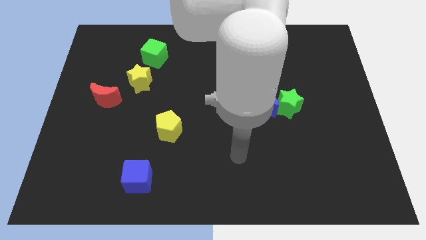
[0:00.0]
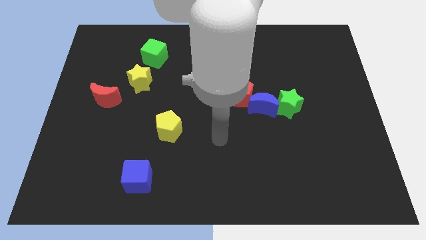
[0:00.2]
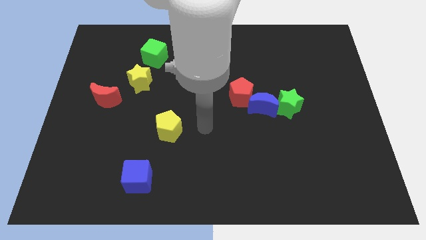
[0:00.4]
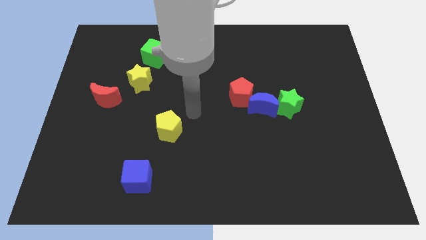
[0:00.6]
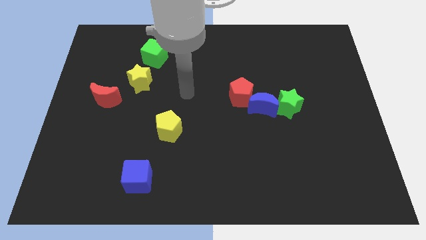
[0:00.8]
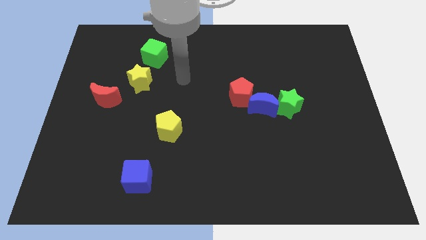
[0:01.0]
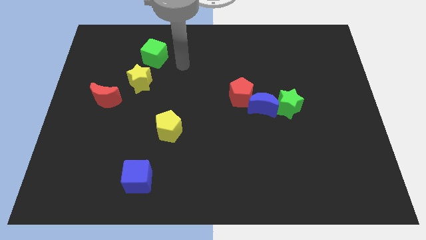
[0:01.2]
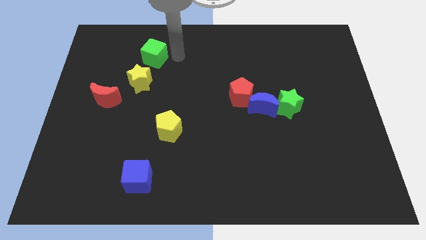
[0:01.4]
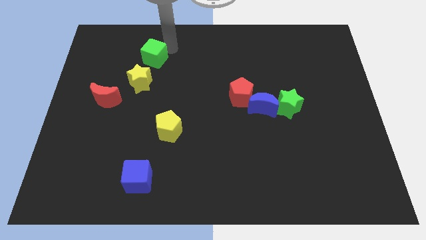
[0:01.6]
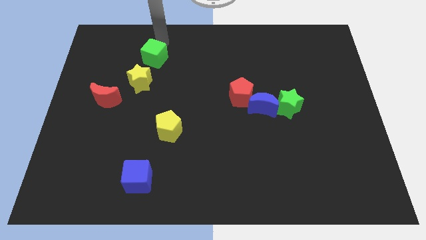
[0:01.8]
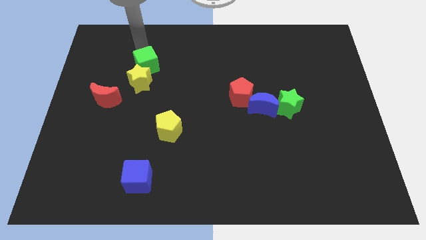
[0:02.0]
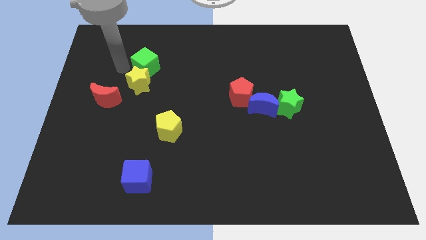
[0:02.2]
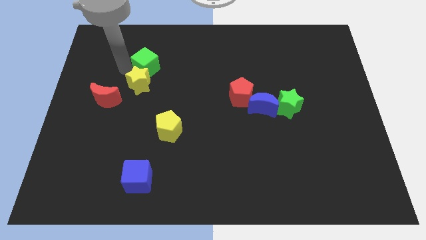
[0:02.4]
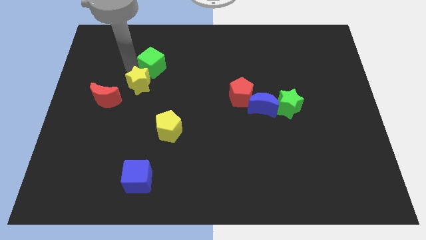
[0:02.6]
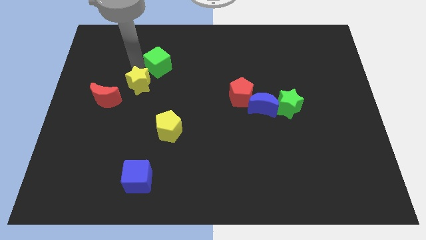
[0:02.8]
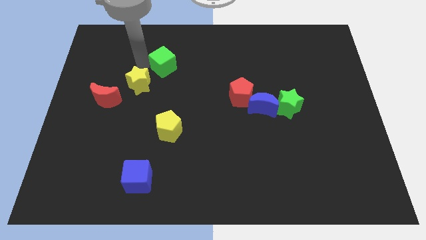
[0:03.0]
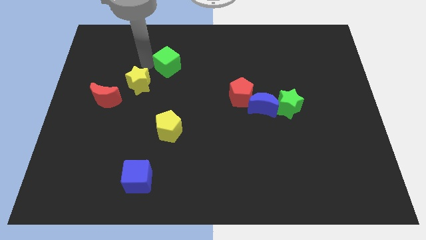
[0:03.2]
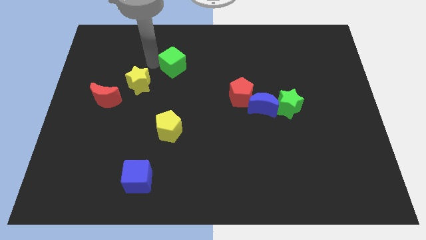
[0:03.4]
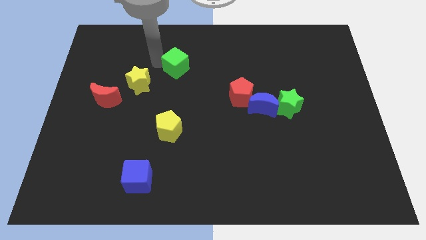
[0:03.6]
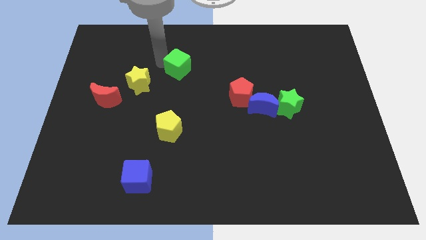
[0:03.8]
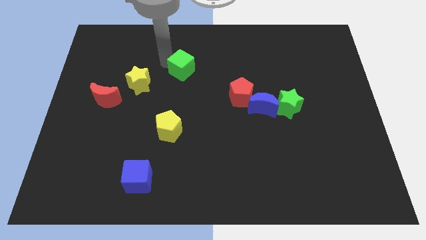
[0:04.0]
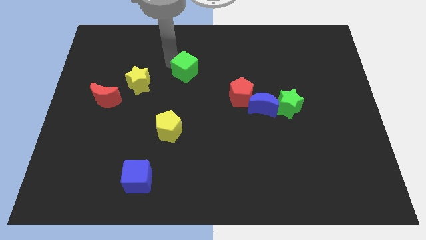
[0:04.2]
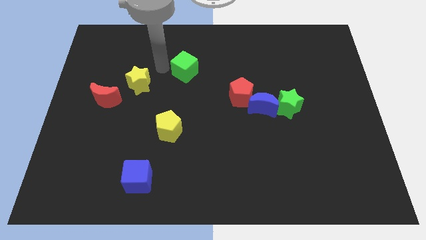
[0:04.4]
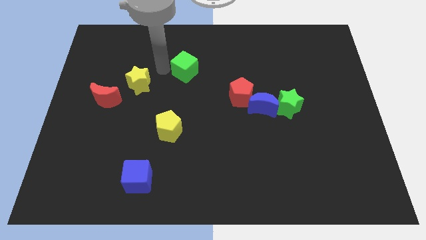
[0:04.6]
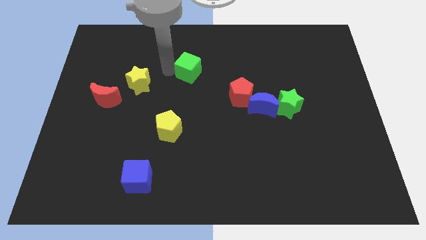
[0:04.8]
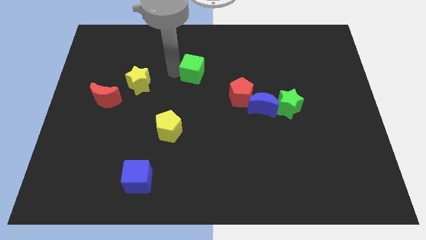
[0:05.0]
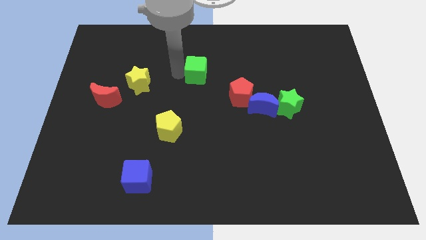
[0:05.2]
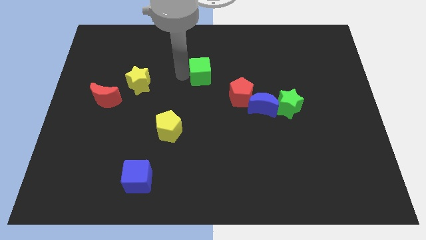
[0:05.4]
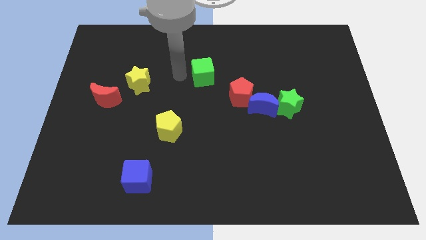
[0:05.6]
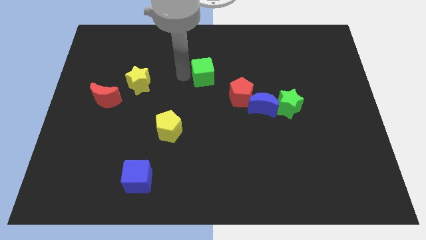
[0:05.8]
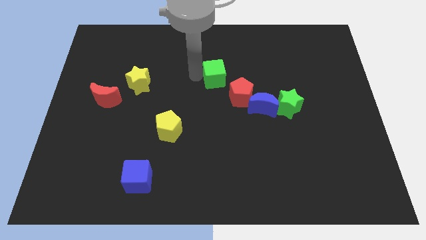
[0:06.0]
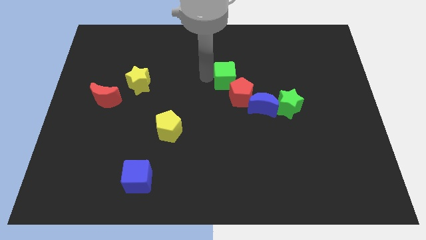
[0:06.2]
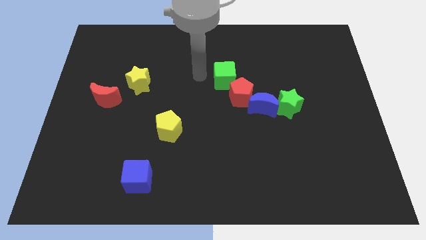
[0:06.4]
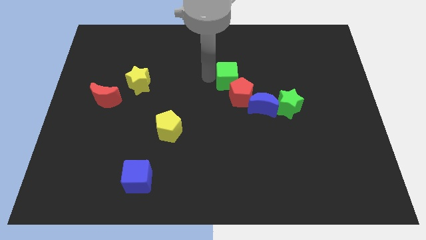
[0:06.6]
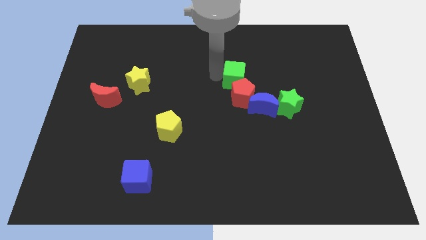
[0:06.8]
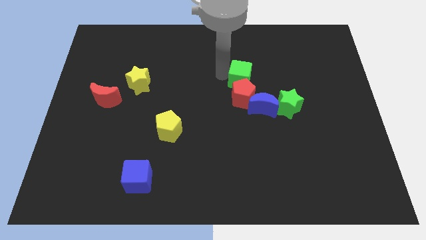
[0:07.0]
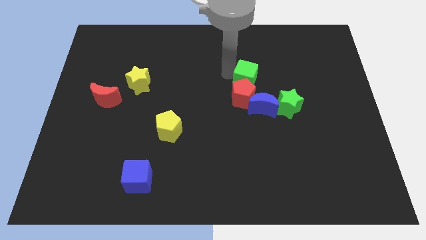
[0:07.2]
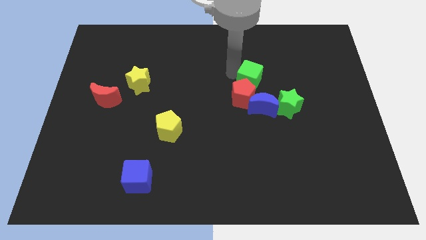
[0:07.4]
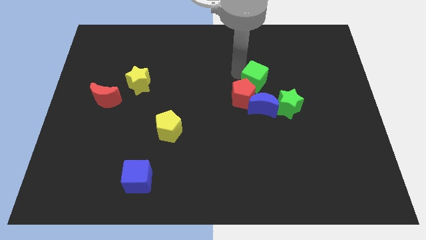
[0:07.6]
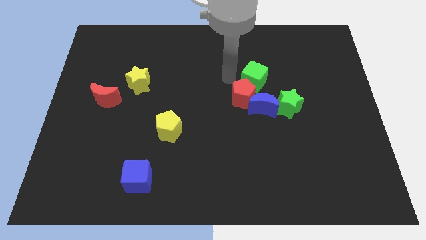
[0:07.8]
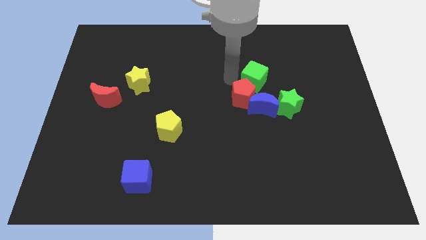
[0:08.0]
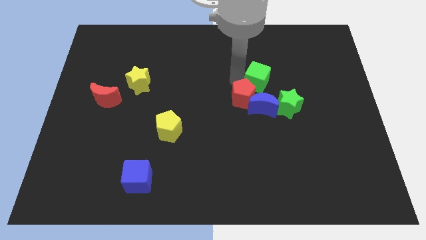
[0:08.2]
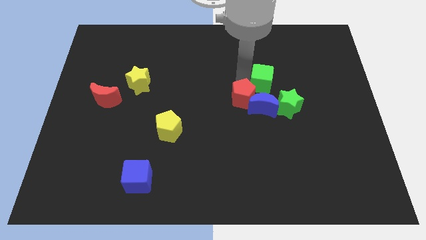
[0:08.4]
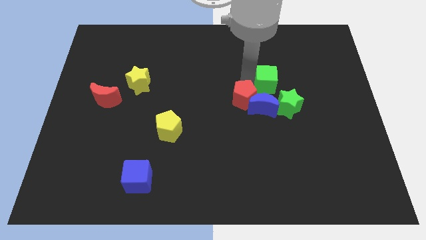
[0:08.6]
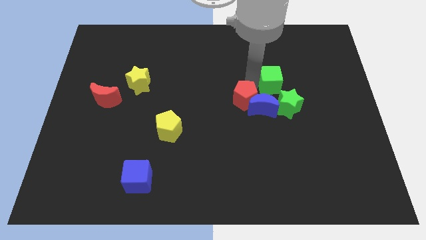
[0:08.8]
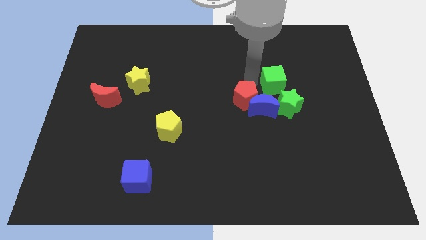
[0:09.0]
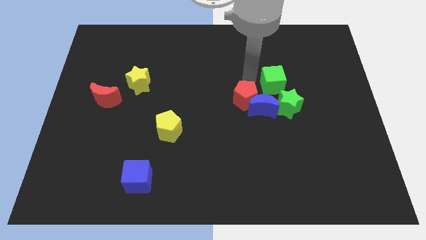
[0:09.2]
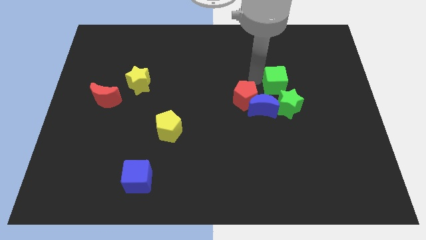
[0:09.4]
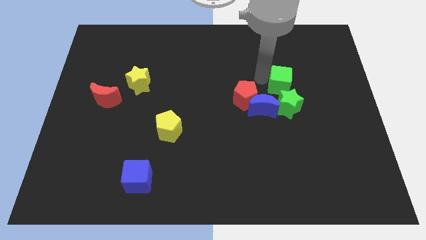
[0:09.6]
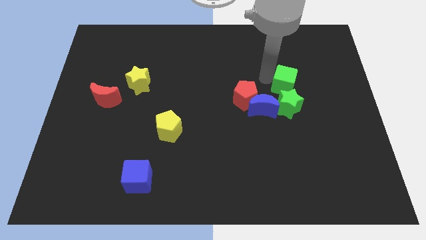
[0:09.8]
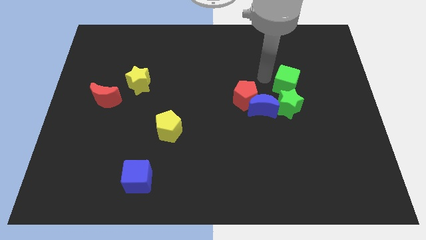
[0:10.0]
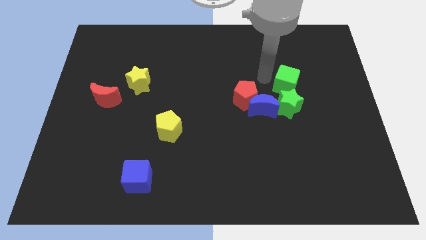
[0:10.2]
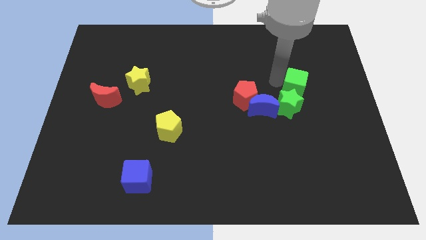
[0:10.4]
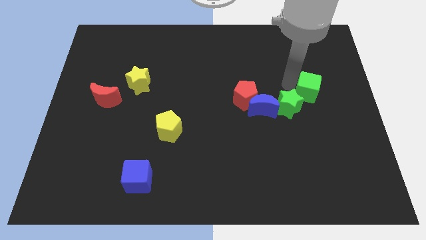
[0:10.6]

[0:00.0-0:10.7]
put the green cube just right of the green star

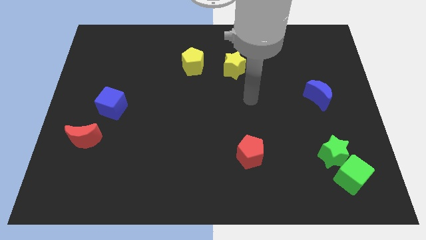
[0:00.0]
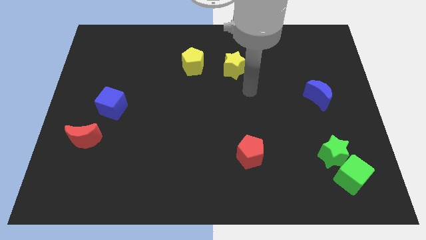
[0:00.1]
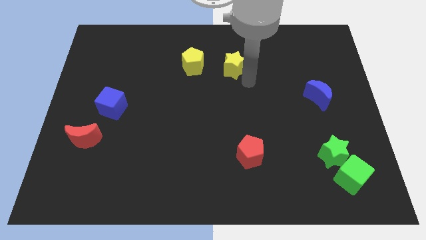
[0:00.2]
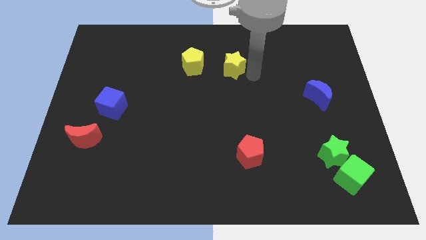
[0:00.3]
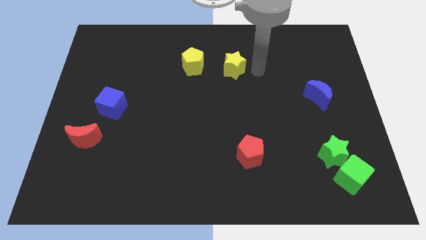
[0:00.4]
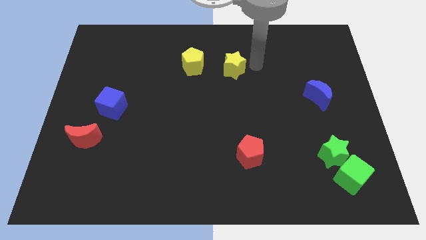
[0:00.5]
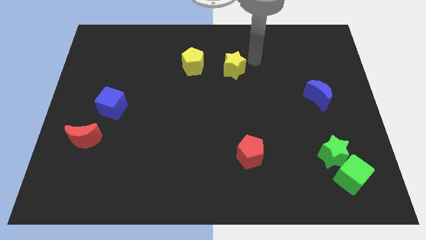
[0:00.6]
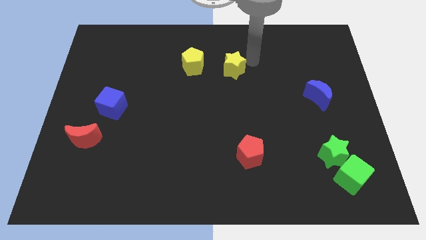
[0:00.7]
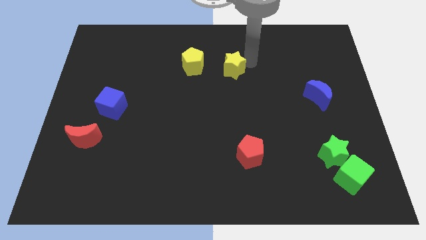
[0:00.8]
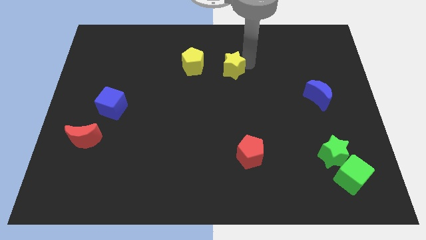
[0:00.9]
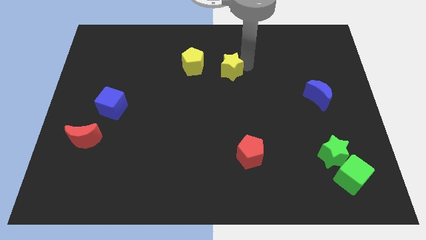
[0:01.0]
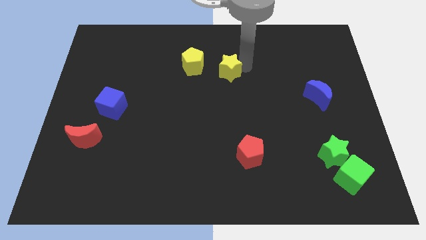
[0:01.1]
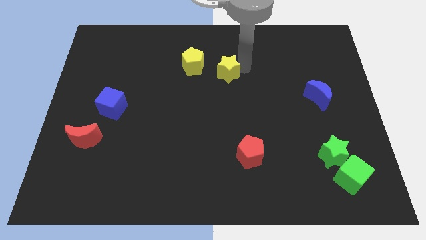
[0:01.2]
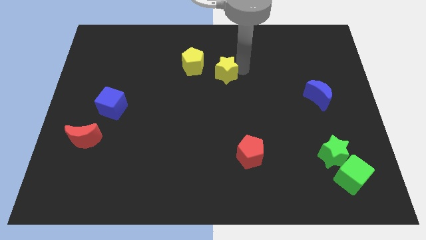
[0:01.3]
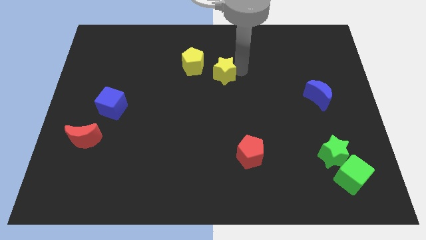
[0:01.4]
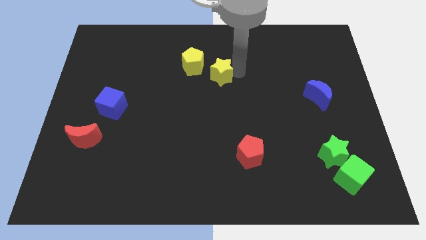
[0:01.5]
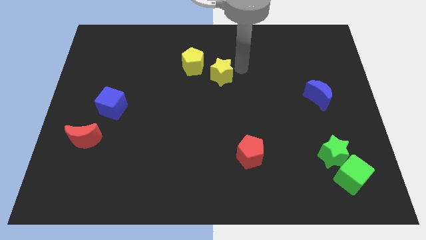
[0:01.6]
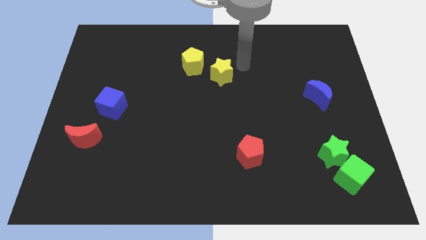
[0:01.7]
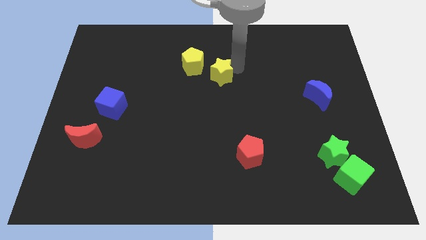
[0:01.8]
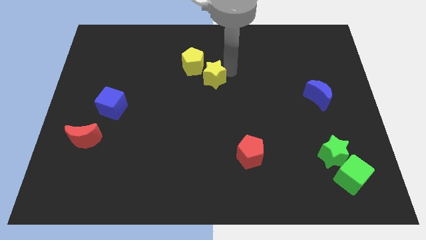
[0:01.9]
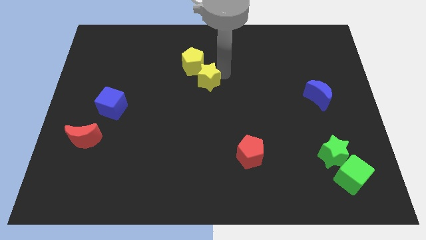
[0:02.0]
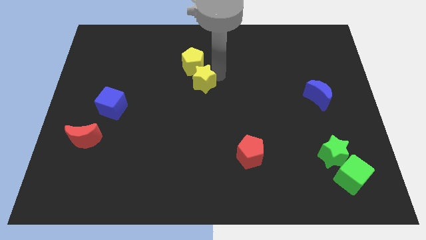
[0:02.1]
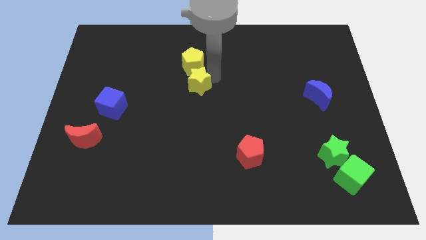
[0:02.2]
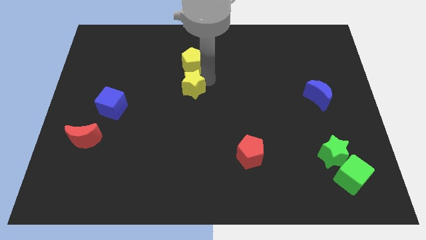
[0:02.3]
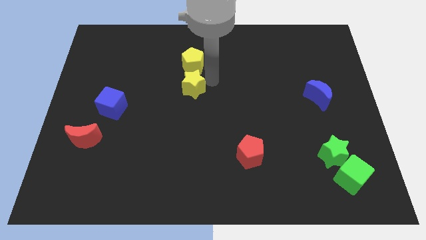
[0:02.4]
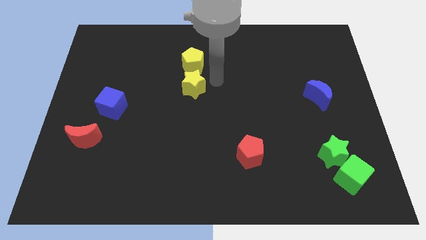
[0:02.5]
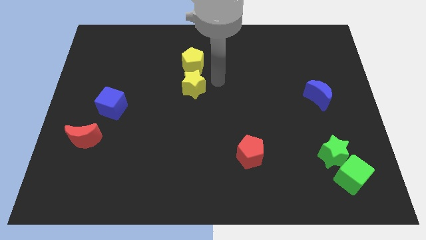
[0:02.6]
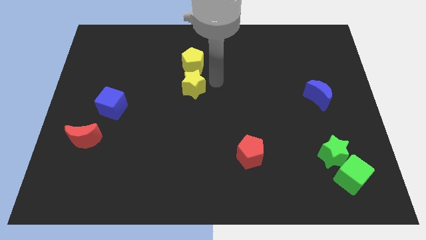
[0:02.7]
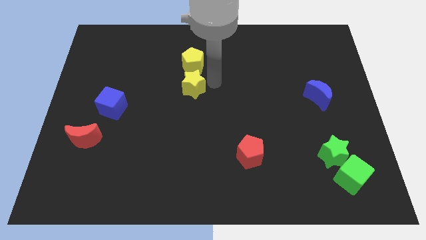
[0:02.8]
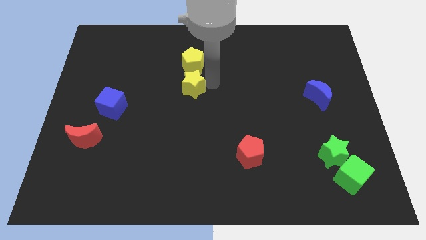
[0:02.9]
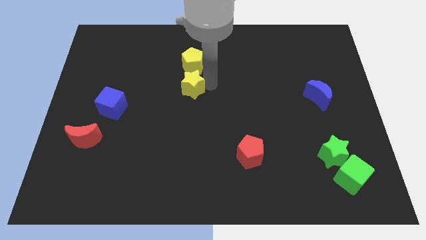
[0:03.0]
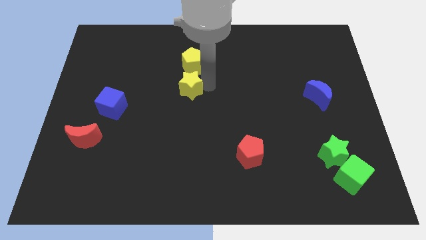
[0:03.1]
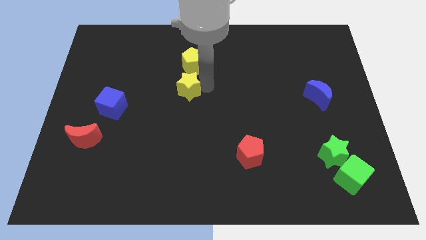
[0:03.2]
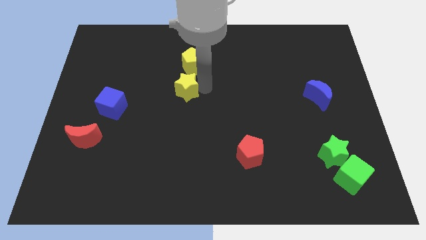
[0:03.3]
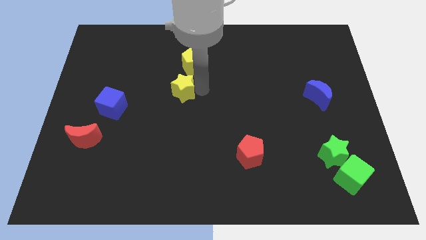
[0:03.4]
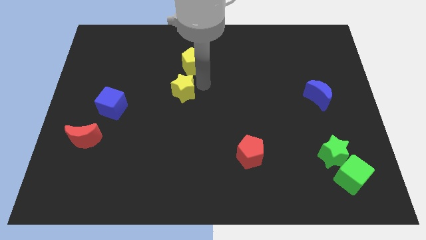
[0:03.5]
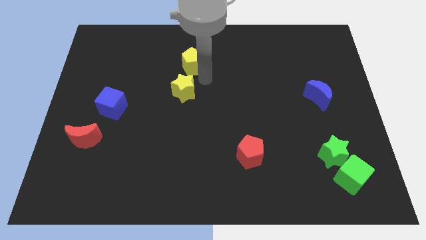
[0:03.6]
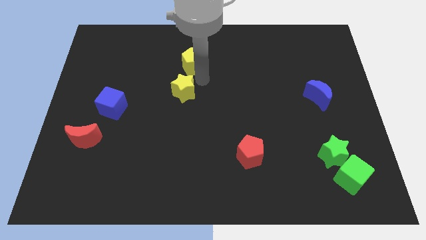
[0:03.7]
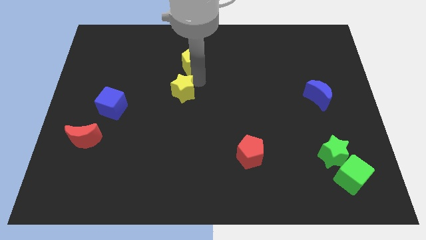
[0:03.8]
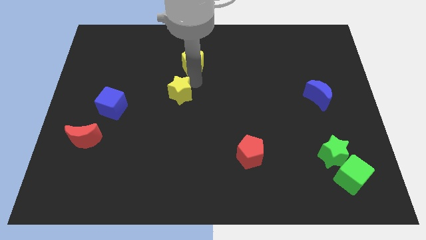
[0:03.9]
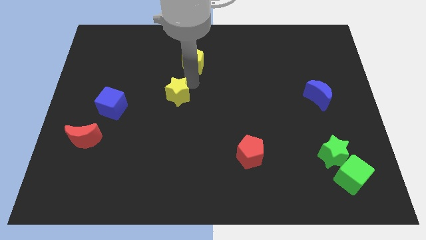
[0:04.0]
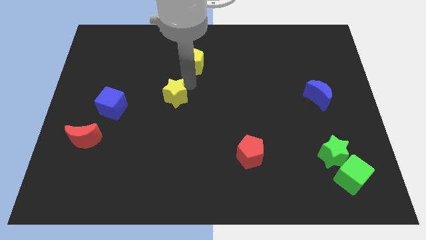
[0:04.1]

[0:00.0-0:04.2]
put the yellow star to the right side of the blue cube
